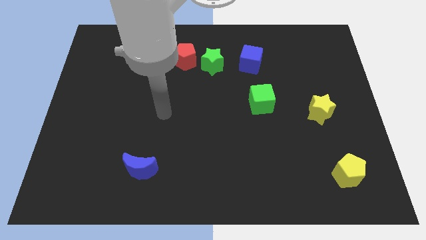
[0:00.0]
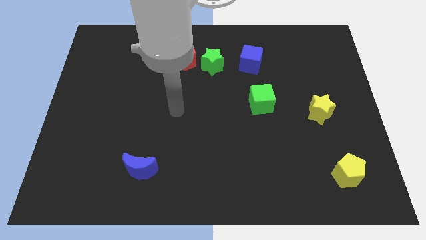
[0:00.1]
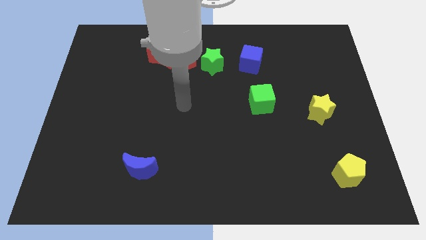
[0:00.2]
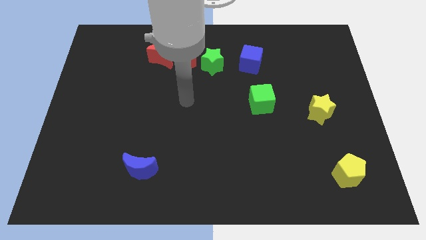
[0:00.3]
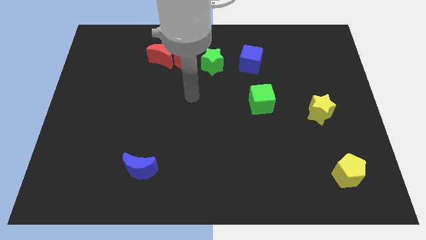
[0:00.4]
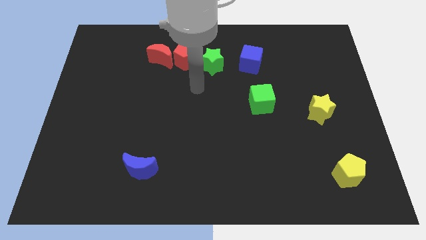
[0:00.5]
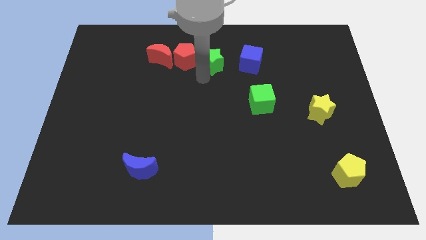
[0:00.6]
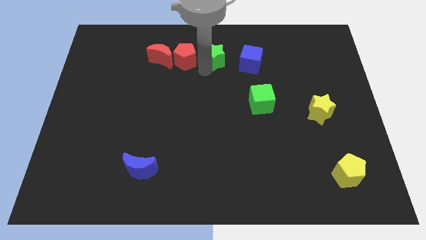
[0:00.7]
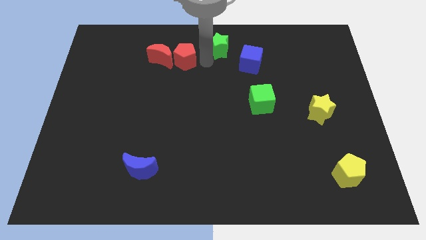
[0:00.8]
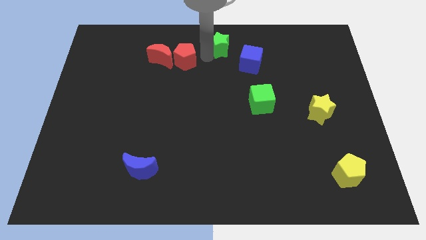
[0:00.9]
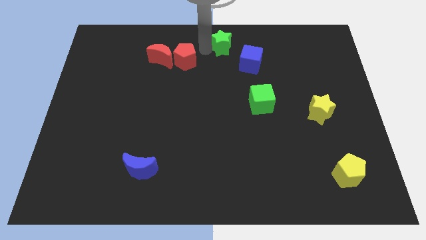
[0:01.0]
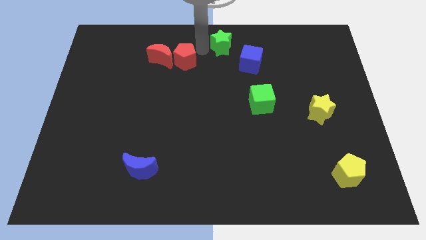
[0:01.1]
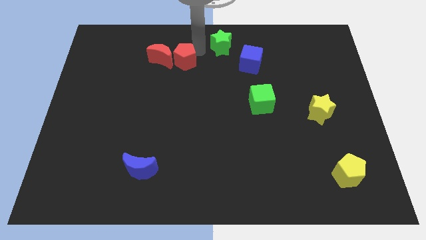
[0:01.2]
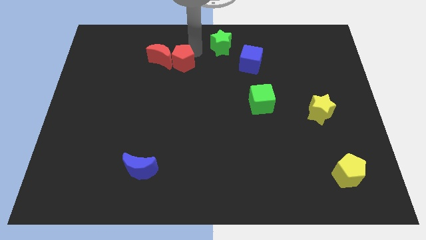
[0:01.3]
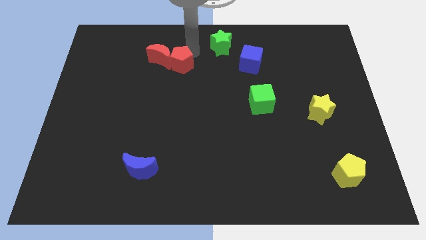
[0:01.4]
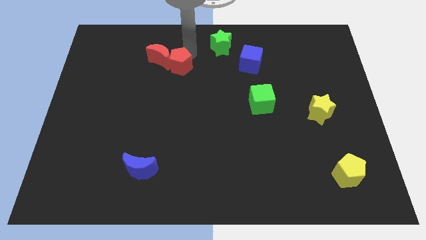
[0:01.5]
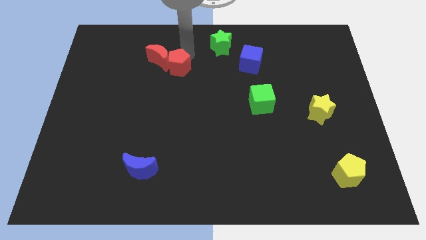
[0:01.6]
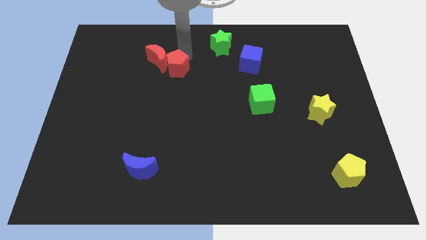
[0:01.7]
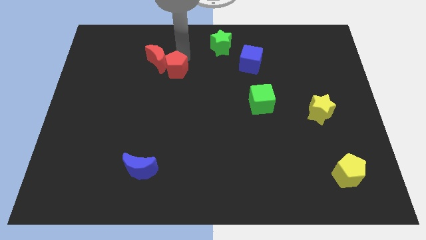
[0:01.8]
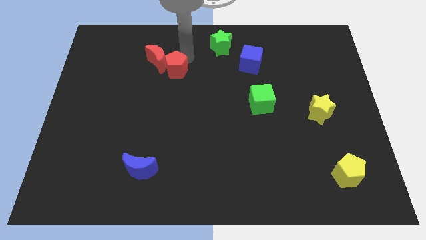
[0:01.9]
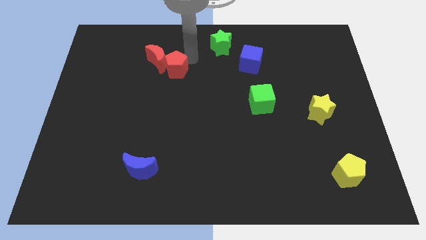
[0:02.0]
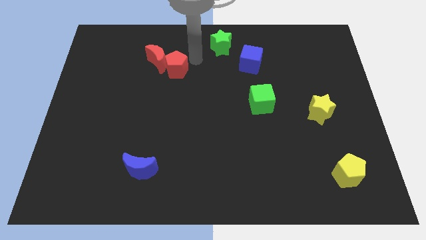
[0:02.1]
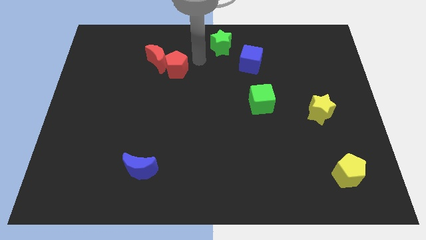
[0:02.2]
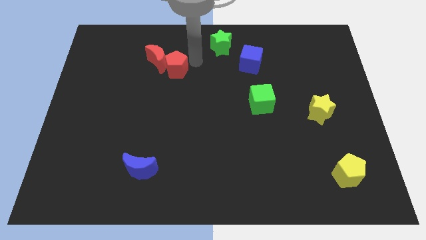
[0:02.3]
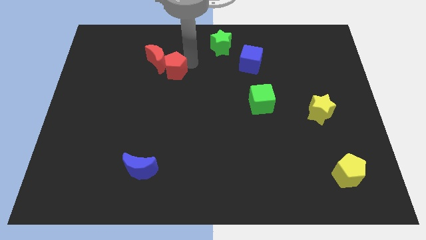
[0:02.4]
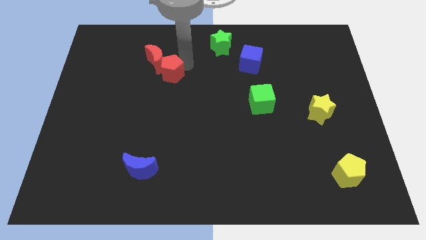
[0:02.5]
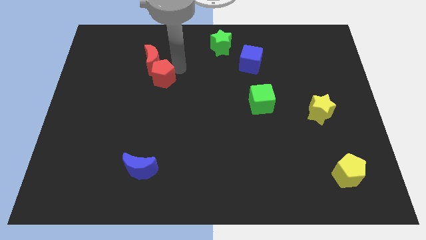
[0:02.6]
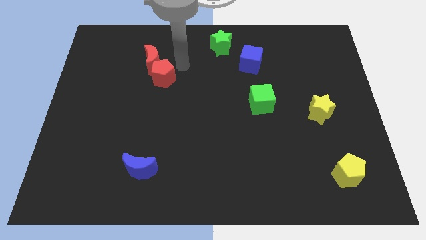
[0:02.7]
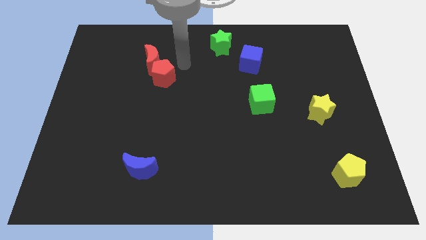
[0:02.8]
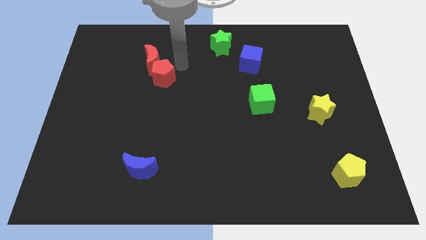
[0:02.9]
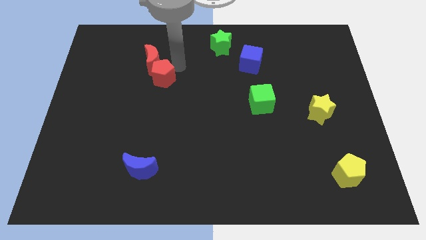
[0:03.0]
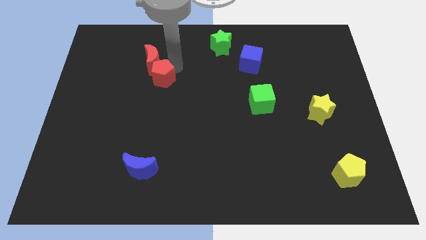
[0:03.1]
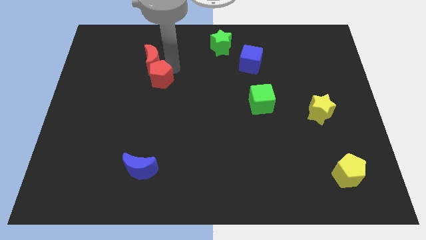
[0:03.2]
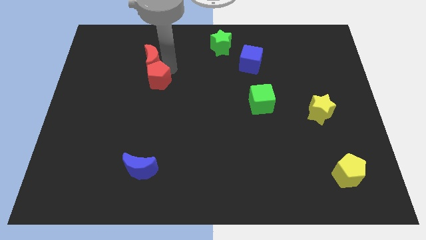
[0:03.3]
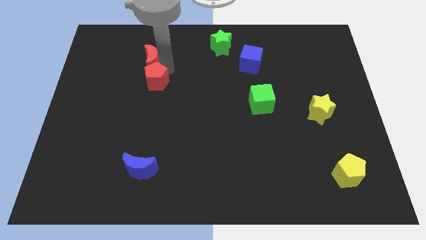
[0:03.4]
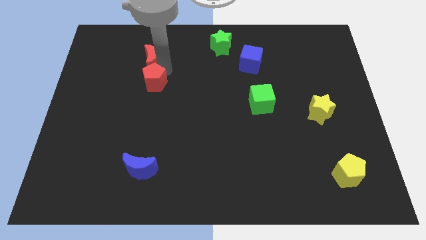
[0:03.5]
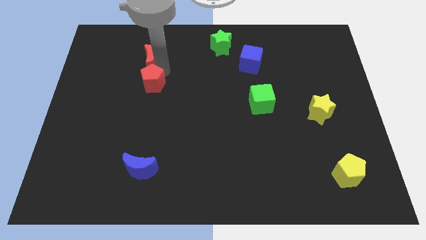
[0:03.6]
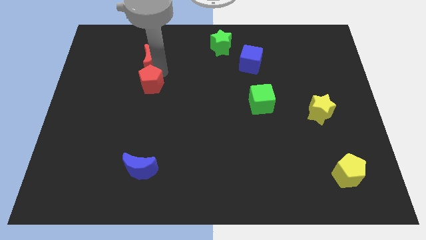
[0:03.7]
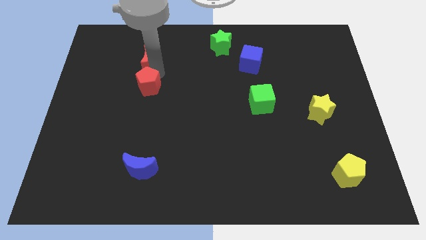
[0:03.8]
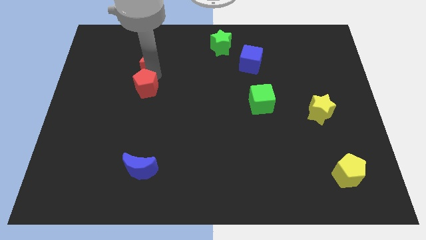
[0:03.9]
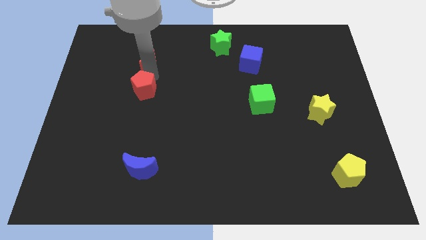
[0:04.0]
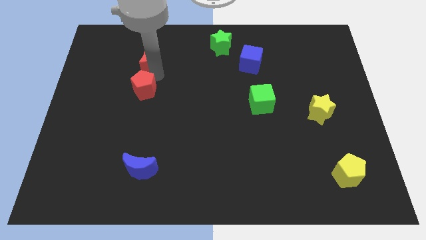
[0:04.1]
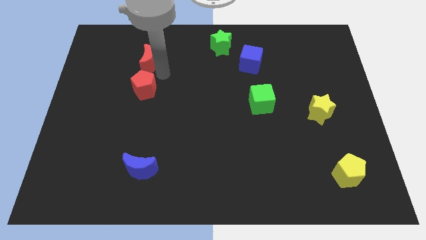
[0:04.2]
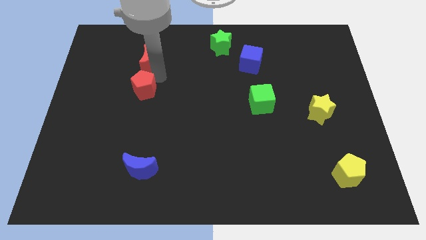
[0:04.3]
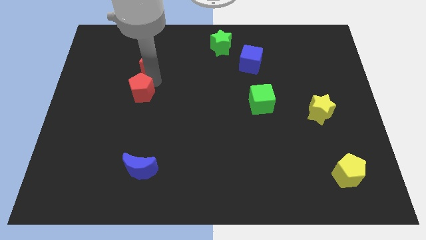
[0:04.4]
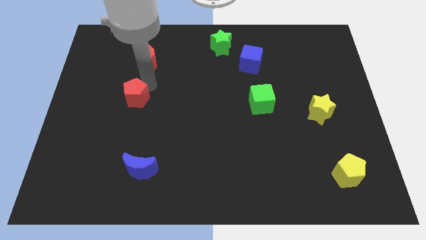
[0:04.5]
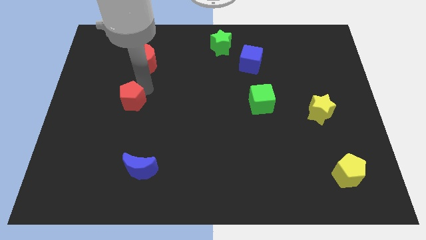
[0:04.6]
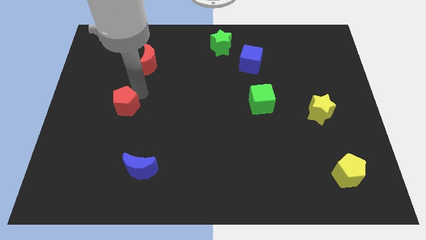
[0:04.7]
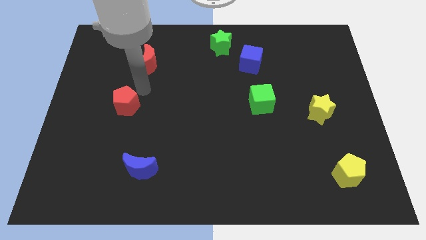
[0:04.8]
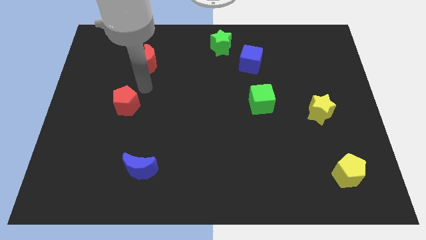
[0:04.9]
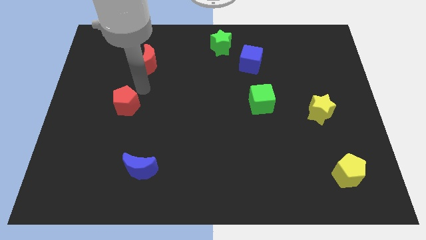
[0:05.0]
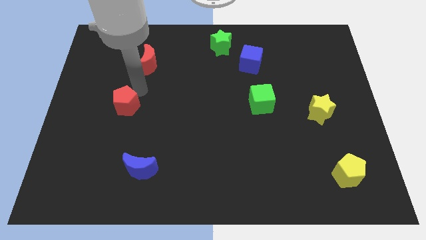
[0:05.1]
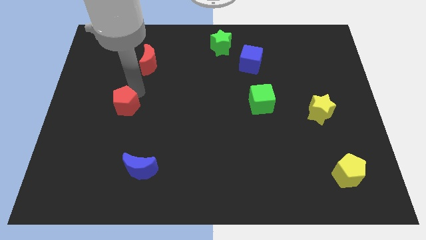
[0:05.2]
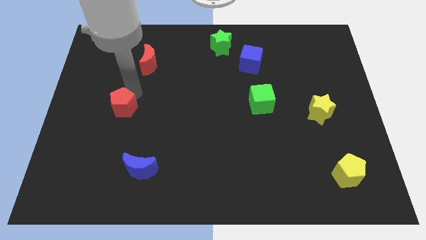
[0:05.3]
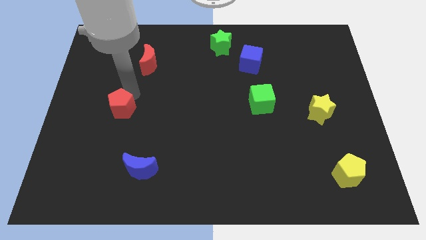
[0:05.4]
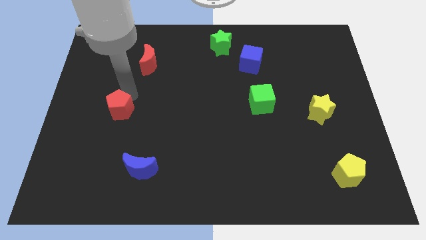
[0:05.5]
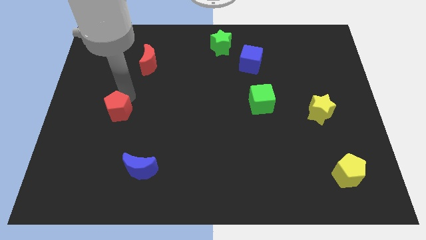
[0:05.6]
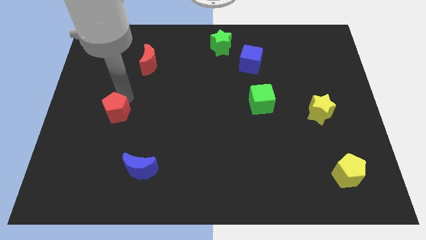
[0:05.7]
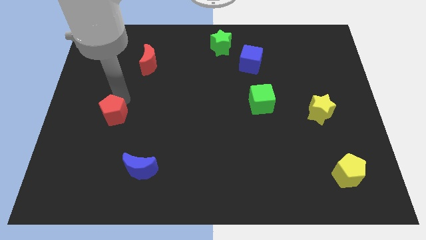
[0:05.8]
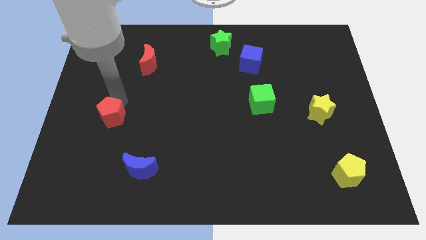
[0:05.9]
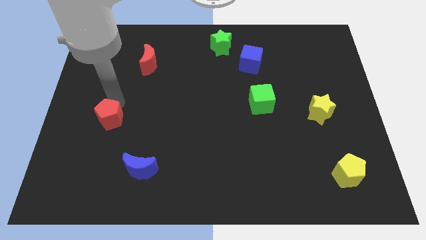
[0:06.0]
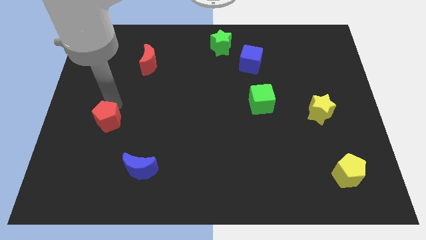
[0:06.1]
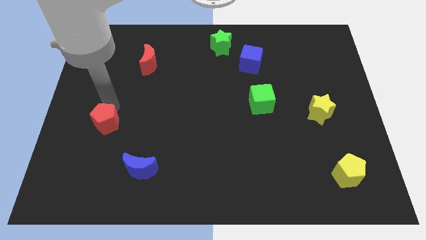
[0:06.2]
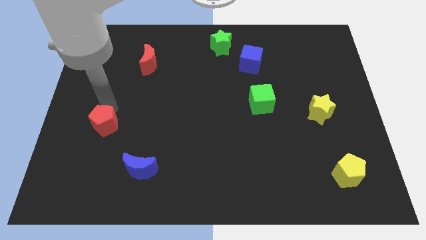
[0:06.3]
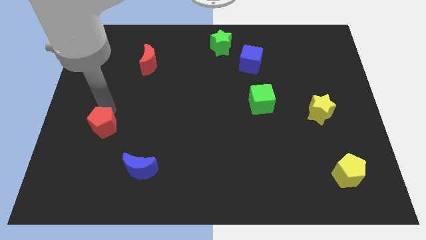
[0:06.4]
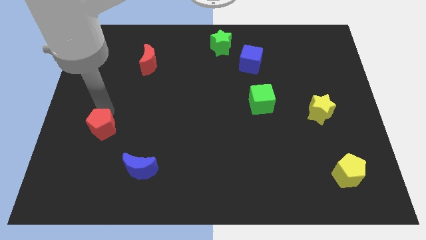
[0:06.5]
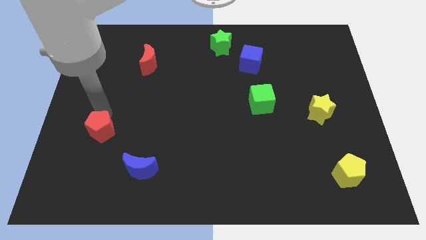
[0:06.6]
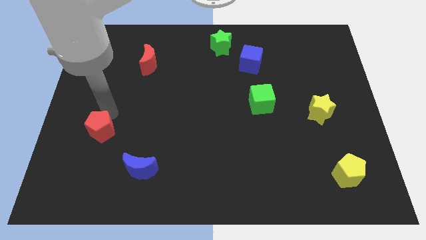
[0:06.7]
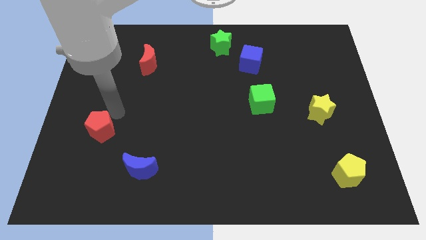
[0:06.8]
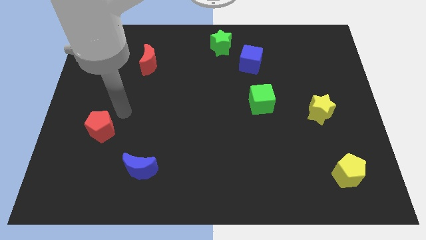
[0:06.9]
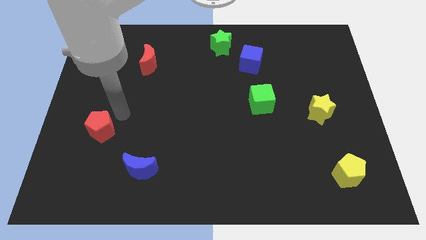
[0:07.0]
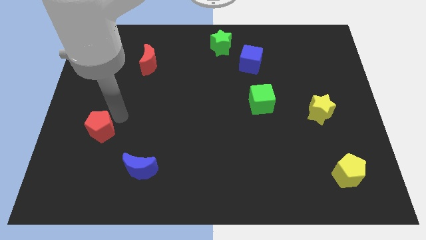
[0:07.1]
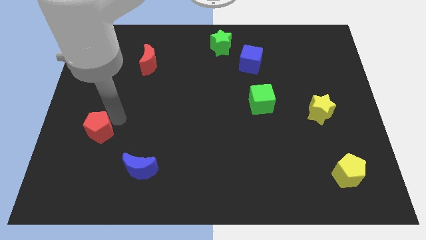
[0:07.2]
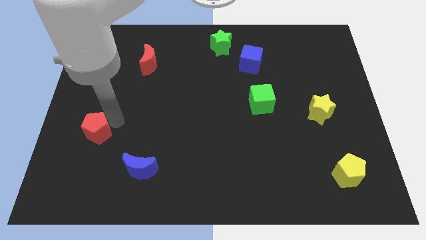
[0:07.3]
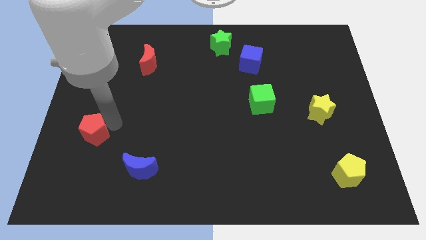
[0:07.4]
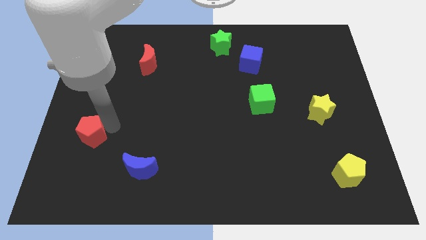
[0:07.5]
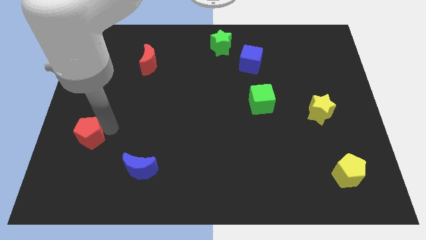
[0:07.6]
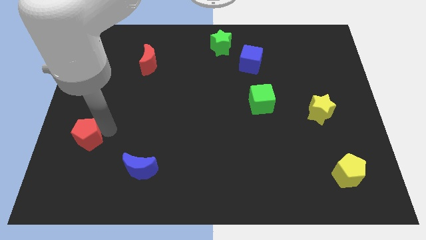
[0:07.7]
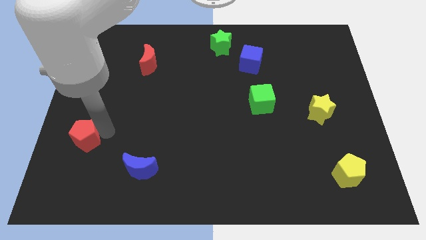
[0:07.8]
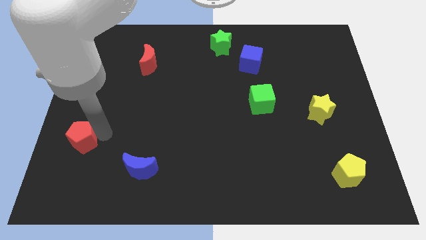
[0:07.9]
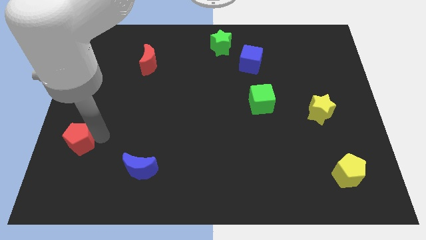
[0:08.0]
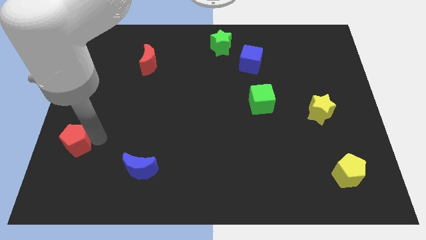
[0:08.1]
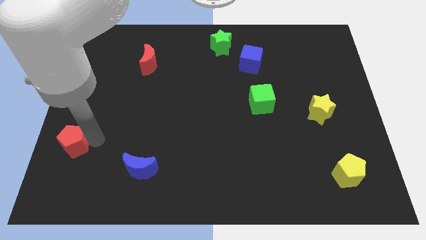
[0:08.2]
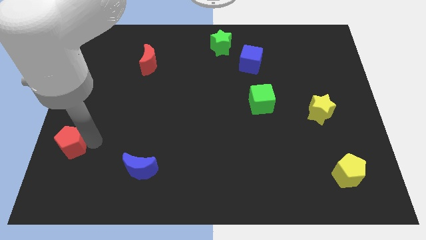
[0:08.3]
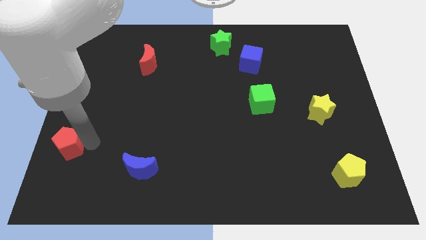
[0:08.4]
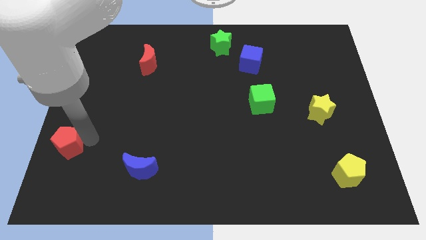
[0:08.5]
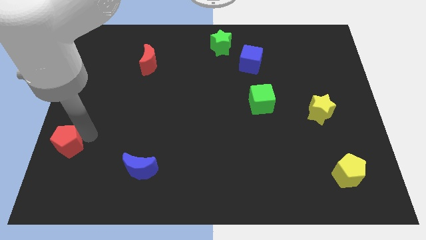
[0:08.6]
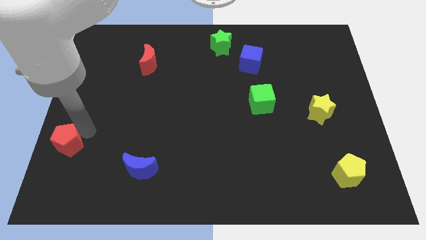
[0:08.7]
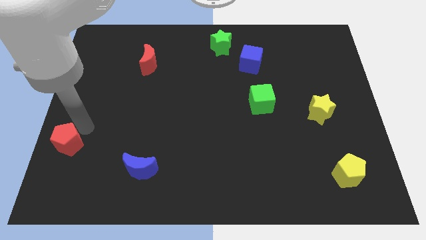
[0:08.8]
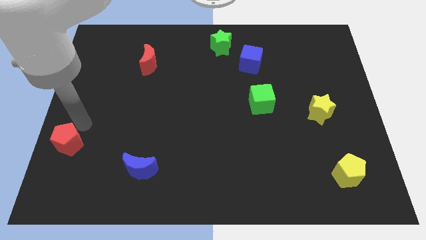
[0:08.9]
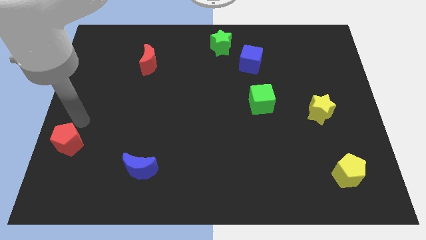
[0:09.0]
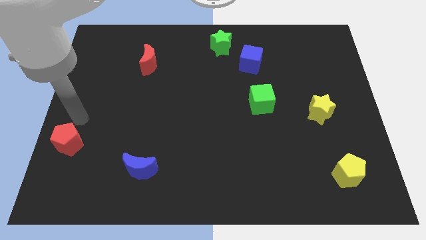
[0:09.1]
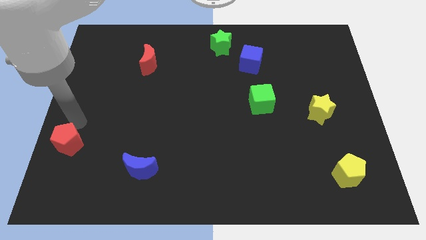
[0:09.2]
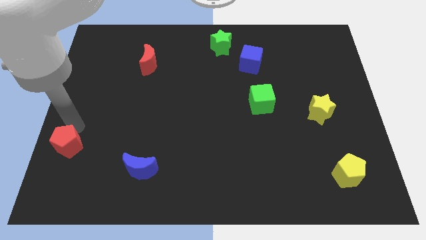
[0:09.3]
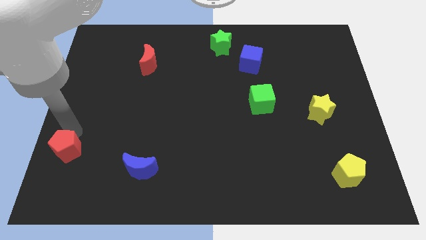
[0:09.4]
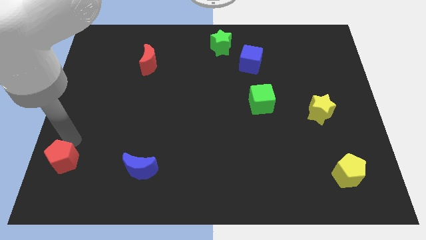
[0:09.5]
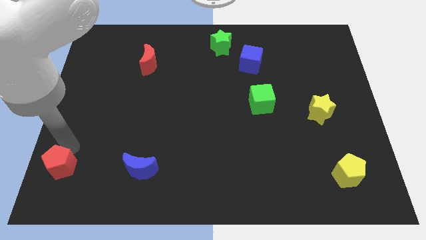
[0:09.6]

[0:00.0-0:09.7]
slide the red pentagon to the bottom left of the board
